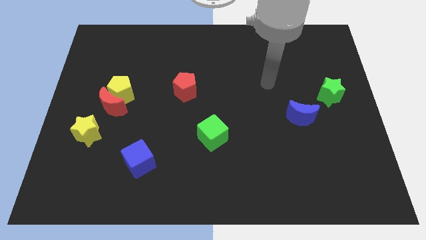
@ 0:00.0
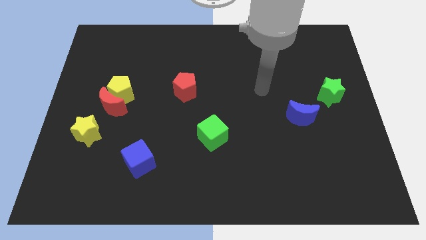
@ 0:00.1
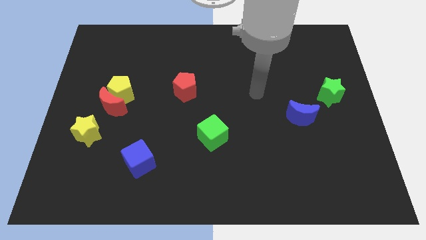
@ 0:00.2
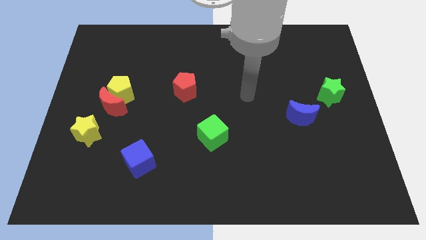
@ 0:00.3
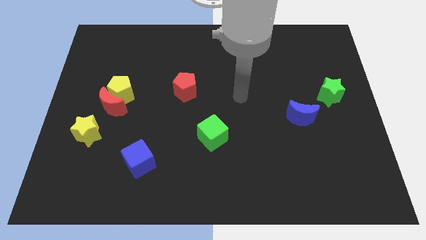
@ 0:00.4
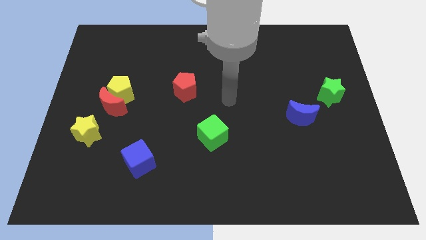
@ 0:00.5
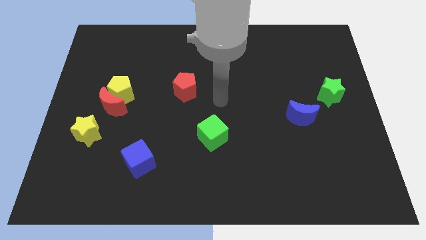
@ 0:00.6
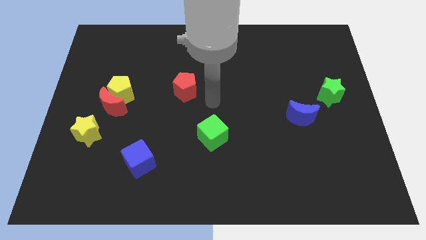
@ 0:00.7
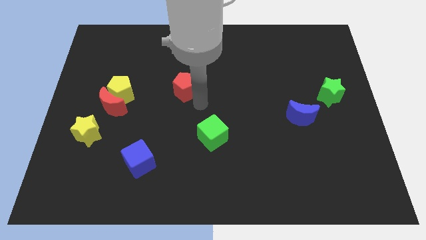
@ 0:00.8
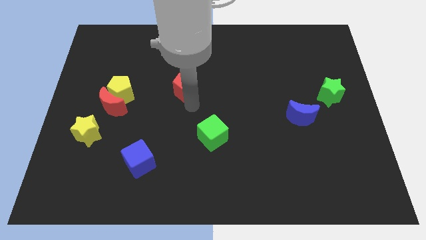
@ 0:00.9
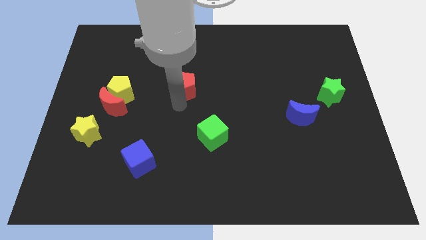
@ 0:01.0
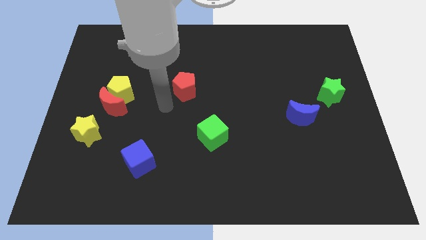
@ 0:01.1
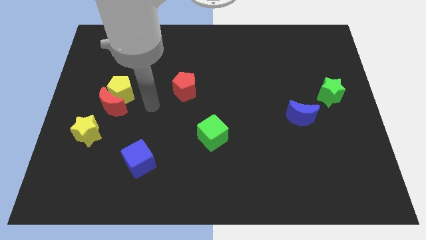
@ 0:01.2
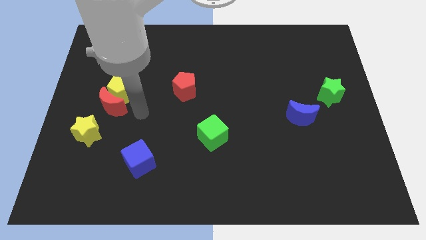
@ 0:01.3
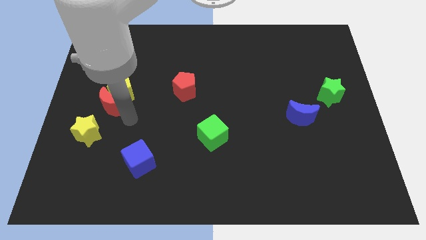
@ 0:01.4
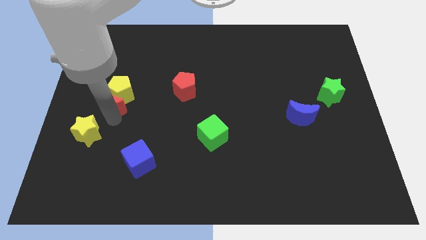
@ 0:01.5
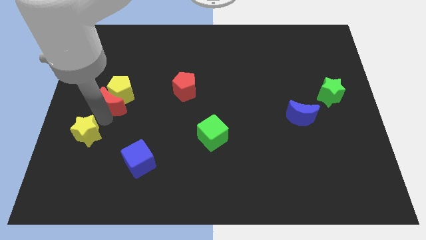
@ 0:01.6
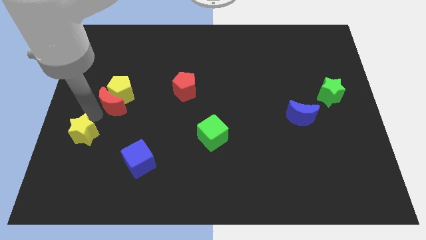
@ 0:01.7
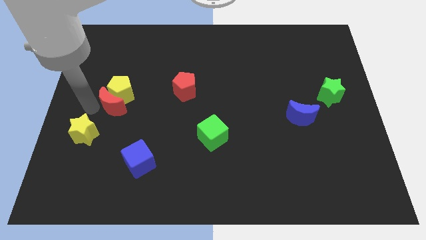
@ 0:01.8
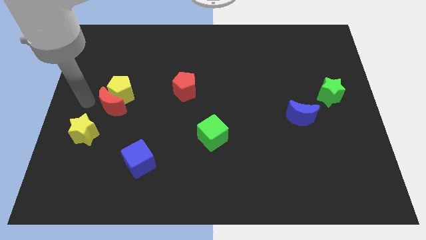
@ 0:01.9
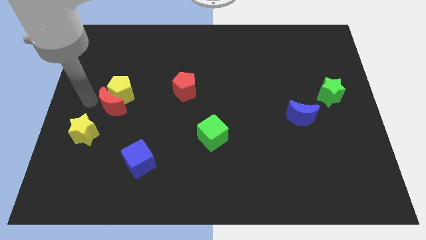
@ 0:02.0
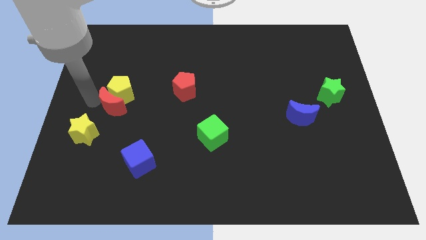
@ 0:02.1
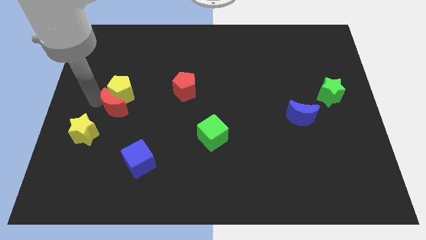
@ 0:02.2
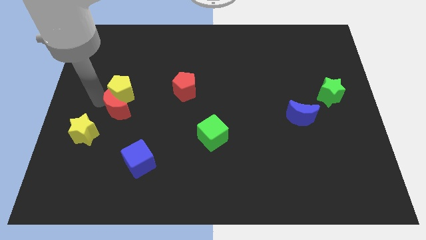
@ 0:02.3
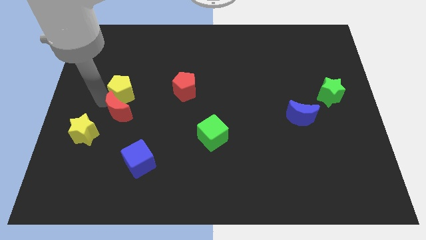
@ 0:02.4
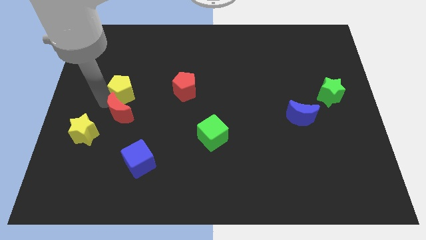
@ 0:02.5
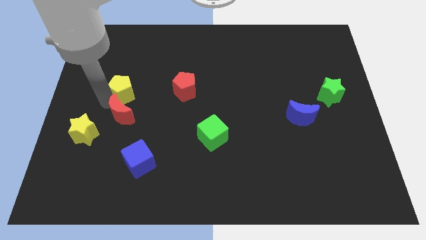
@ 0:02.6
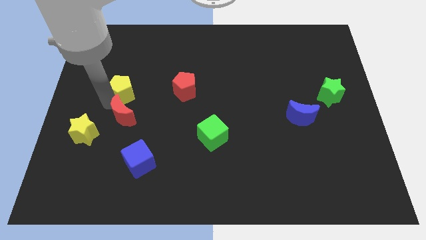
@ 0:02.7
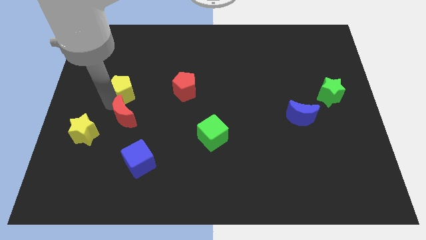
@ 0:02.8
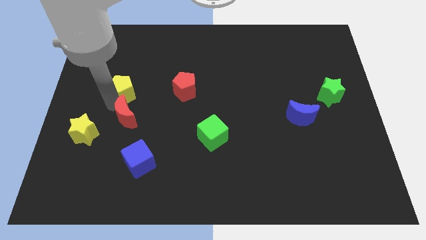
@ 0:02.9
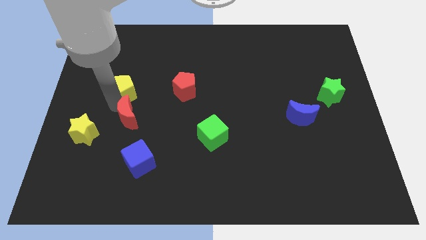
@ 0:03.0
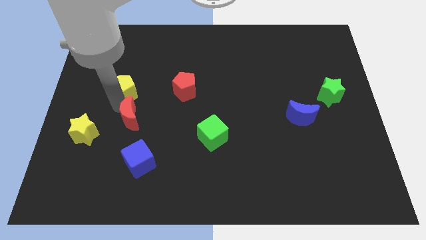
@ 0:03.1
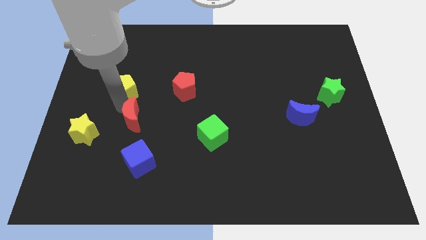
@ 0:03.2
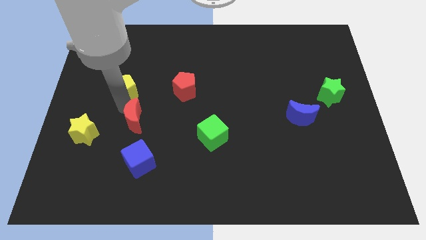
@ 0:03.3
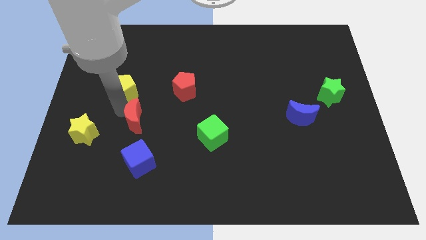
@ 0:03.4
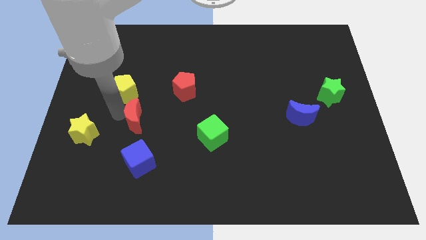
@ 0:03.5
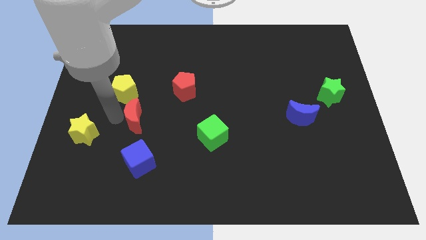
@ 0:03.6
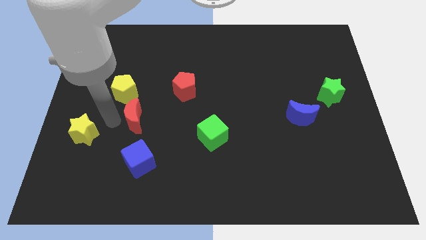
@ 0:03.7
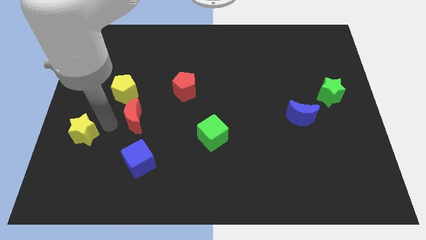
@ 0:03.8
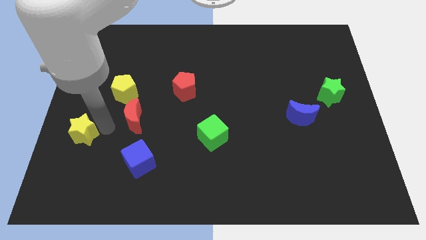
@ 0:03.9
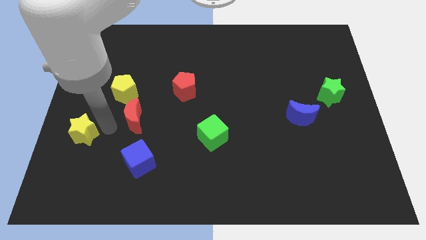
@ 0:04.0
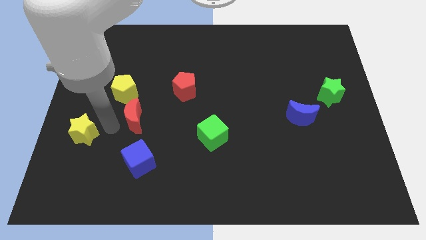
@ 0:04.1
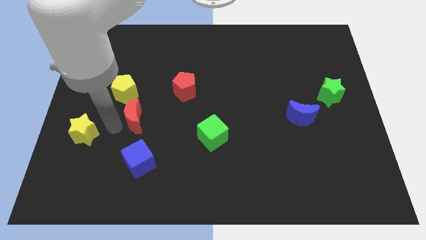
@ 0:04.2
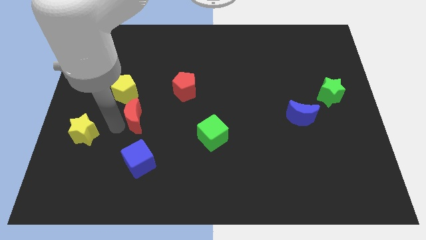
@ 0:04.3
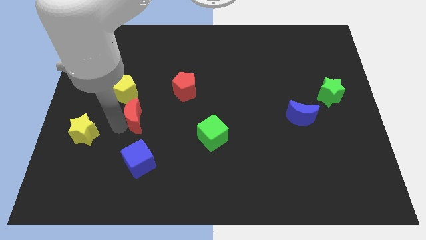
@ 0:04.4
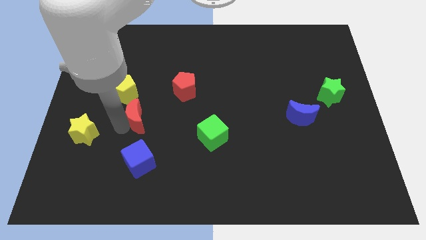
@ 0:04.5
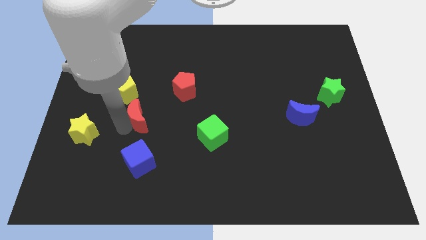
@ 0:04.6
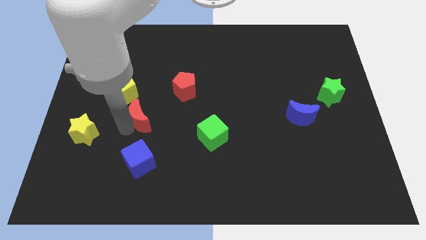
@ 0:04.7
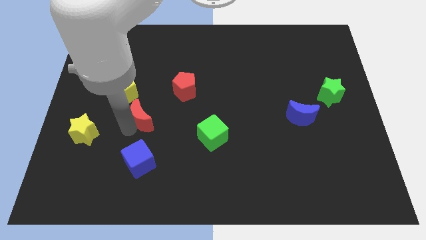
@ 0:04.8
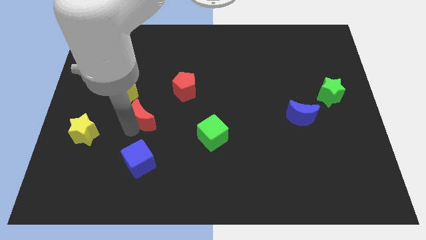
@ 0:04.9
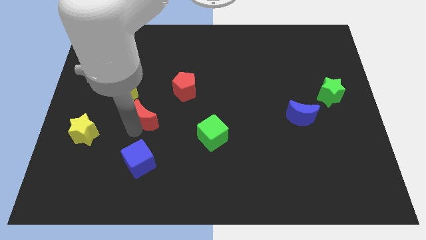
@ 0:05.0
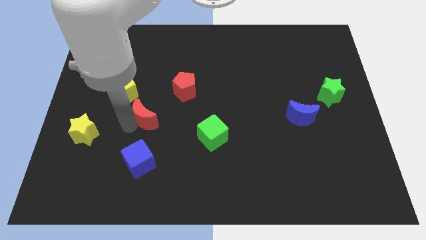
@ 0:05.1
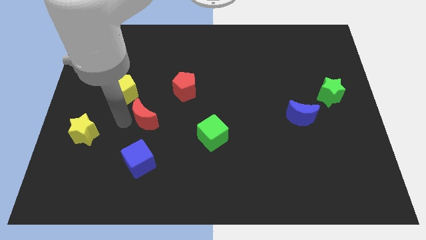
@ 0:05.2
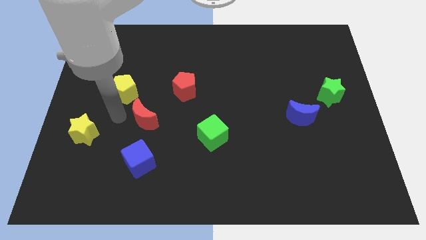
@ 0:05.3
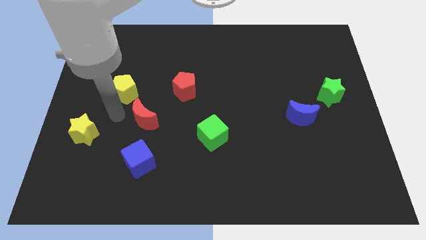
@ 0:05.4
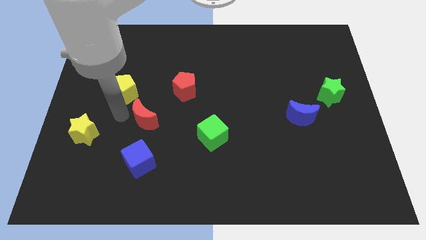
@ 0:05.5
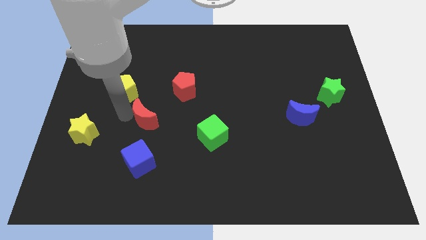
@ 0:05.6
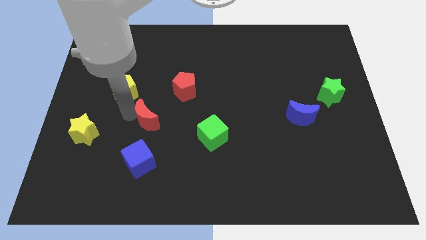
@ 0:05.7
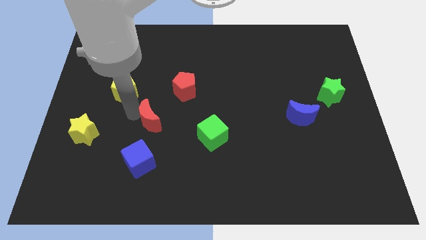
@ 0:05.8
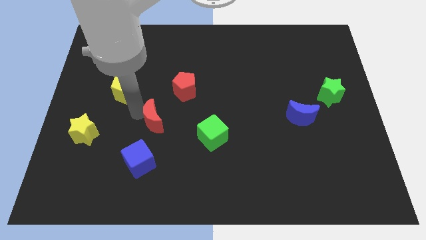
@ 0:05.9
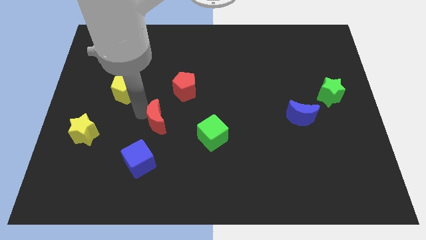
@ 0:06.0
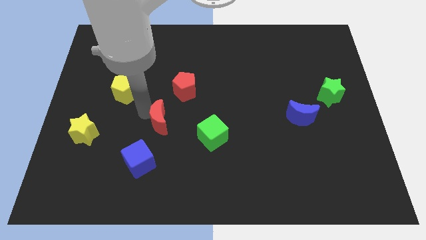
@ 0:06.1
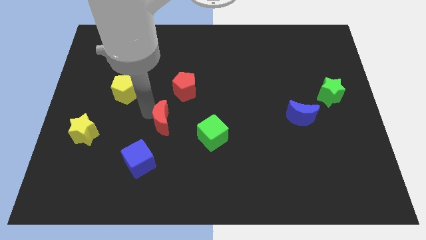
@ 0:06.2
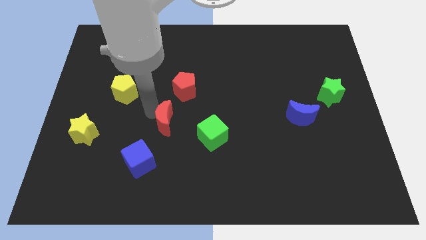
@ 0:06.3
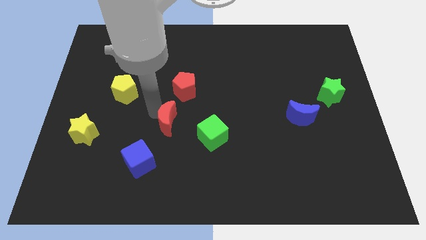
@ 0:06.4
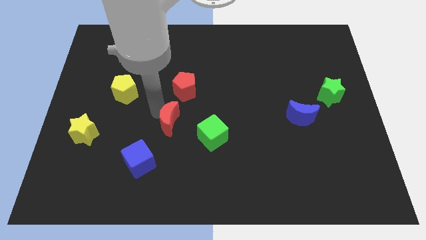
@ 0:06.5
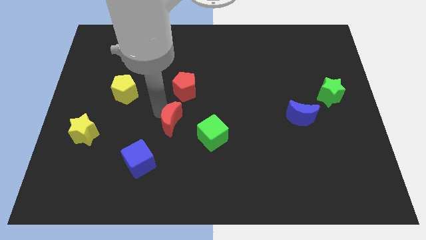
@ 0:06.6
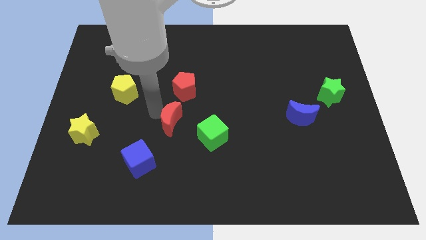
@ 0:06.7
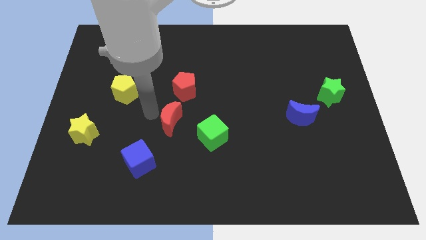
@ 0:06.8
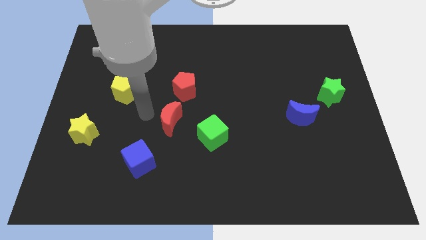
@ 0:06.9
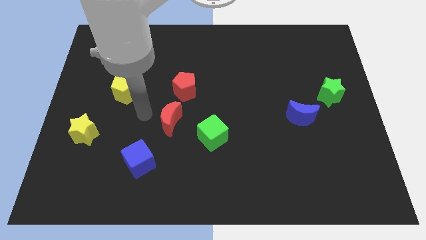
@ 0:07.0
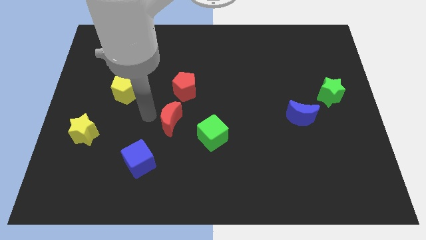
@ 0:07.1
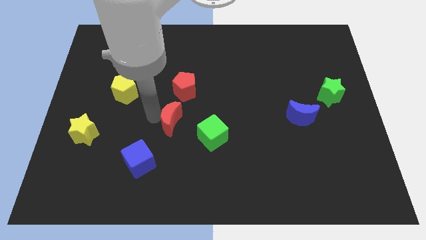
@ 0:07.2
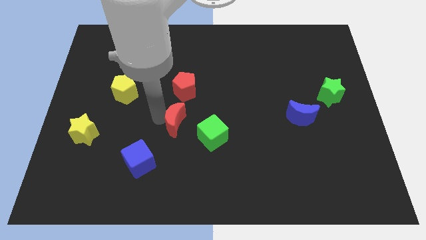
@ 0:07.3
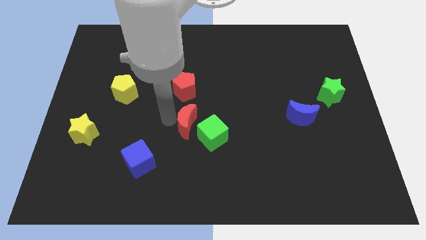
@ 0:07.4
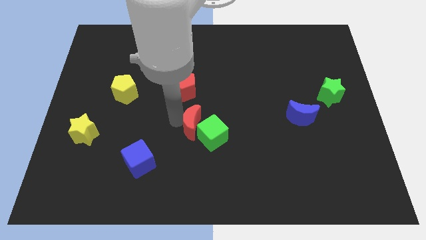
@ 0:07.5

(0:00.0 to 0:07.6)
move the red moon to the green cube
